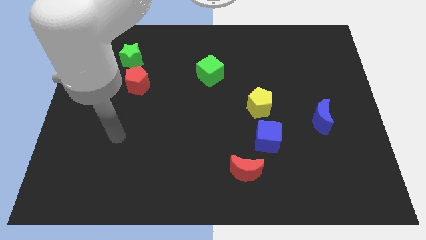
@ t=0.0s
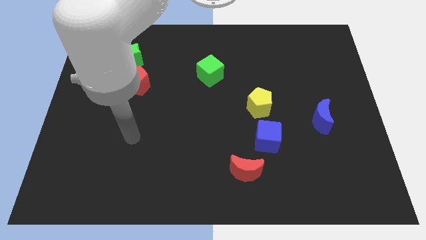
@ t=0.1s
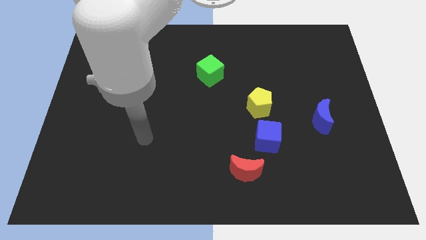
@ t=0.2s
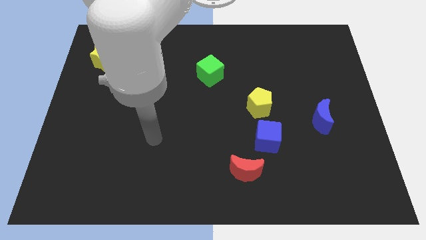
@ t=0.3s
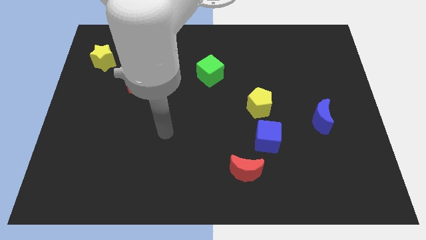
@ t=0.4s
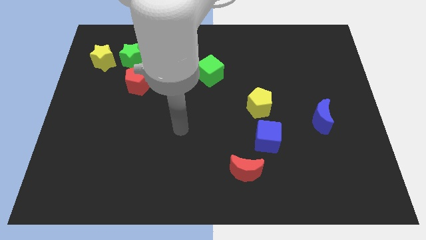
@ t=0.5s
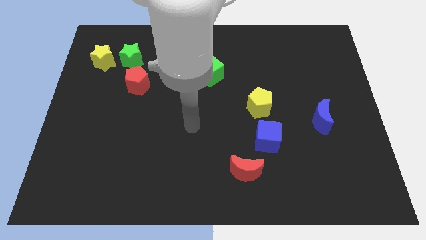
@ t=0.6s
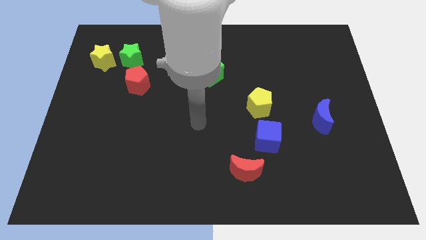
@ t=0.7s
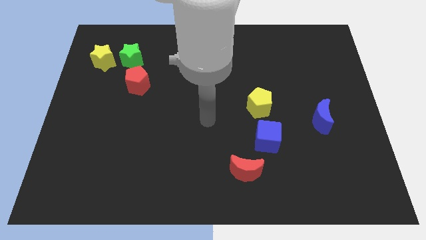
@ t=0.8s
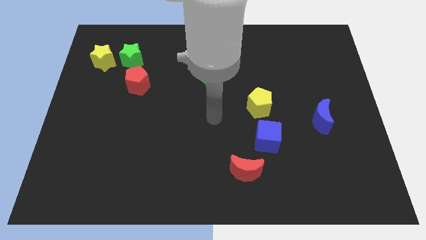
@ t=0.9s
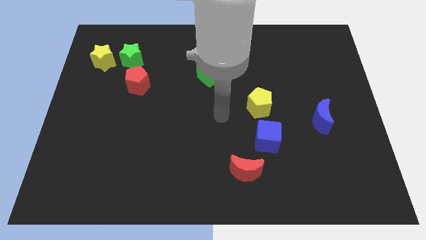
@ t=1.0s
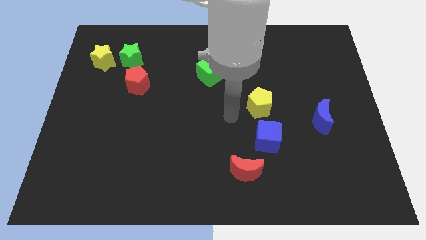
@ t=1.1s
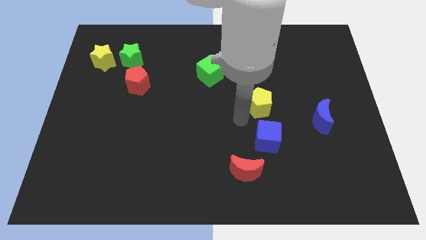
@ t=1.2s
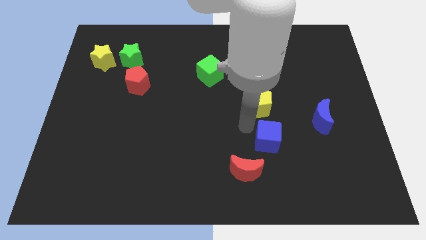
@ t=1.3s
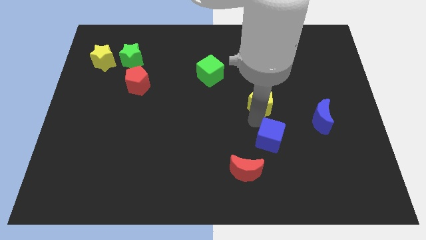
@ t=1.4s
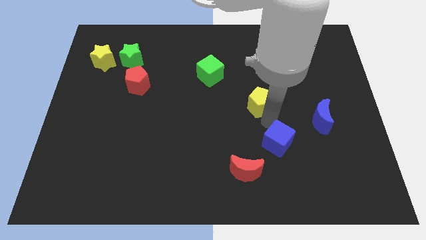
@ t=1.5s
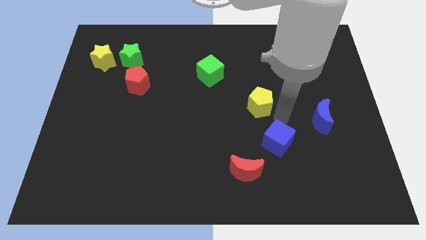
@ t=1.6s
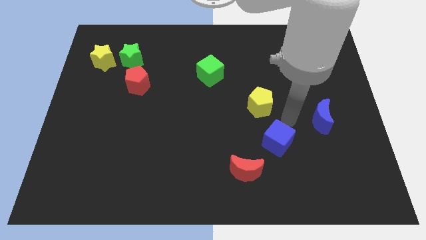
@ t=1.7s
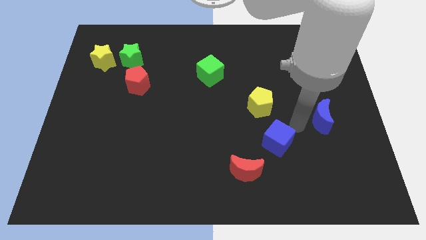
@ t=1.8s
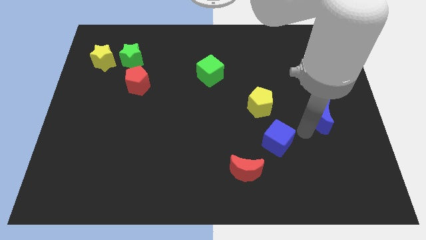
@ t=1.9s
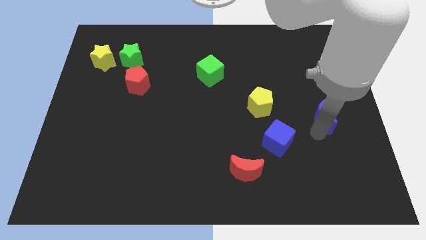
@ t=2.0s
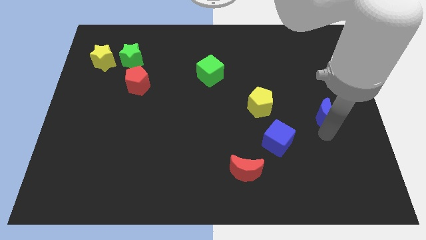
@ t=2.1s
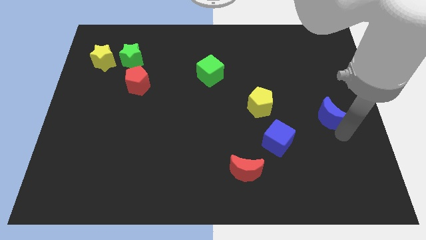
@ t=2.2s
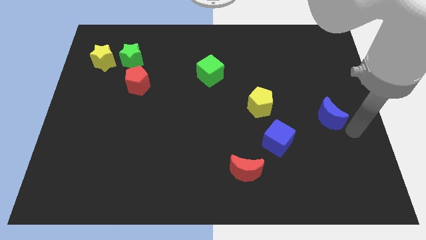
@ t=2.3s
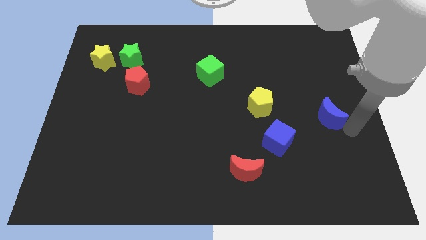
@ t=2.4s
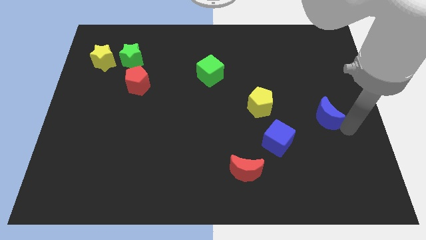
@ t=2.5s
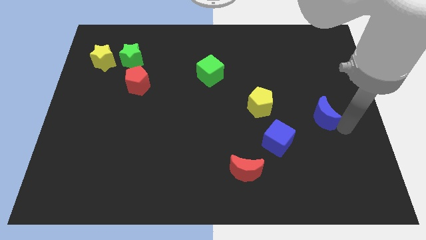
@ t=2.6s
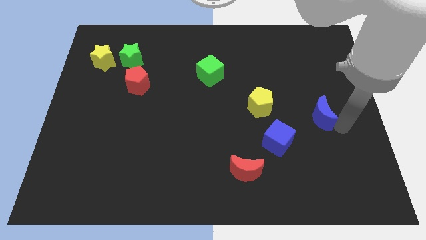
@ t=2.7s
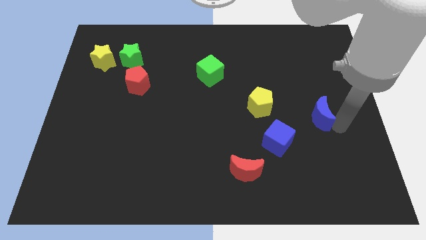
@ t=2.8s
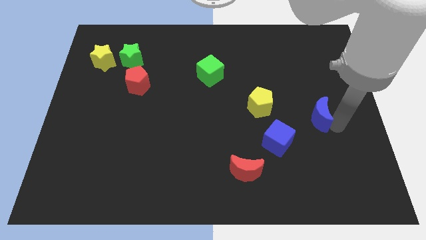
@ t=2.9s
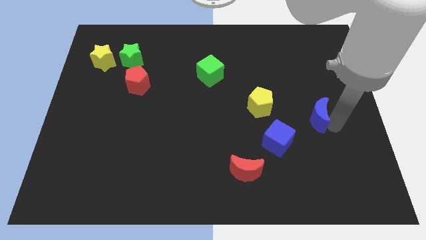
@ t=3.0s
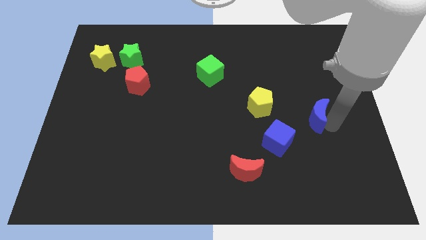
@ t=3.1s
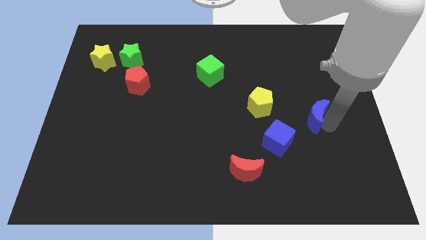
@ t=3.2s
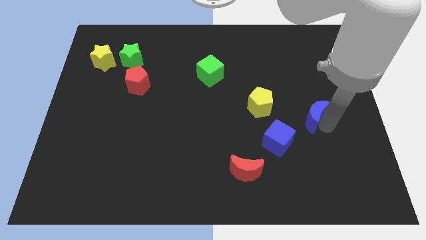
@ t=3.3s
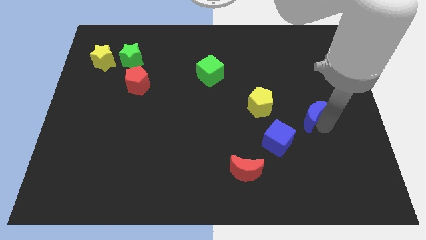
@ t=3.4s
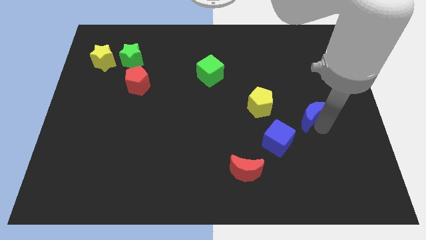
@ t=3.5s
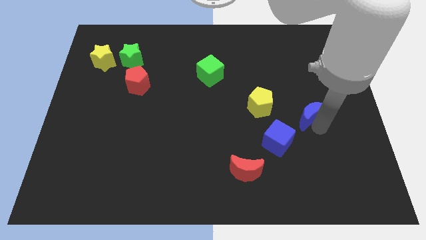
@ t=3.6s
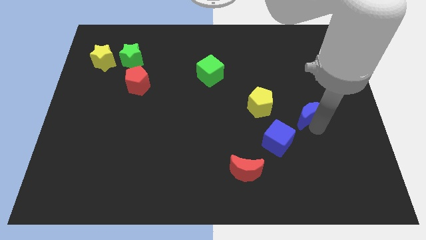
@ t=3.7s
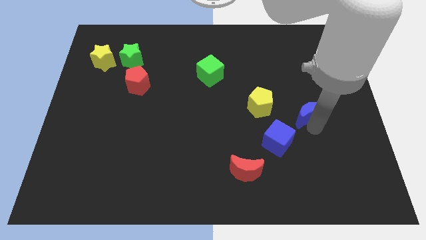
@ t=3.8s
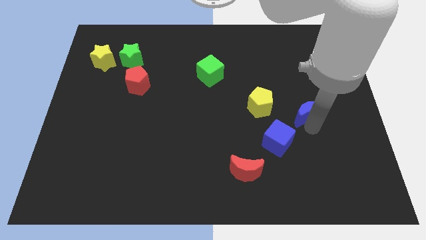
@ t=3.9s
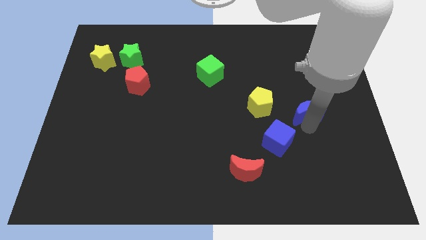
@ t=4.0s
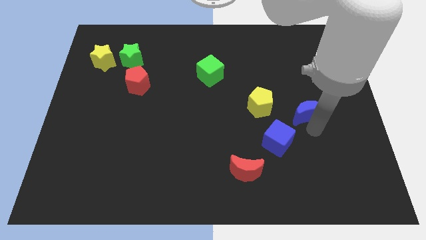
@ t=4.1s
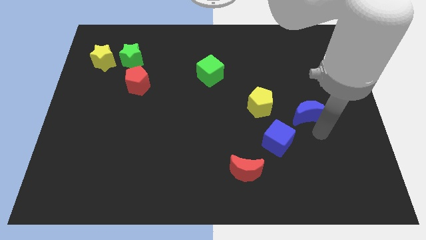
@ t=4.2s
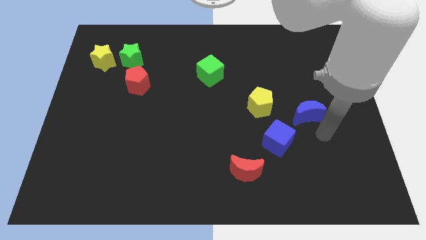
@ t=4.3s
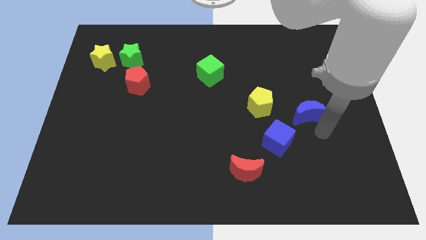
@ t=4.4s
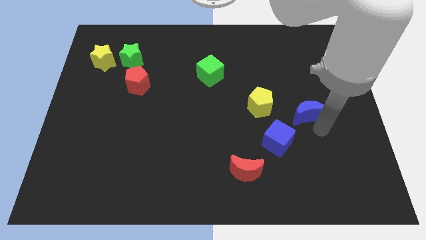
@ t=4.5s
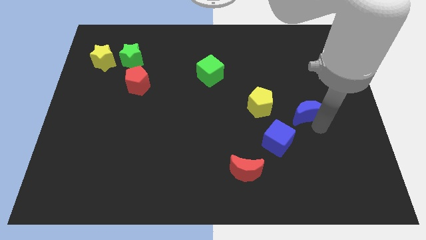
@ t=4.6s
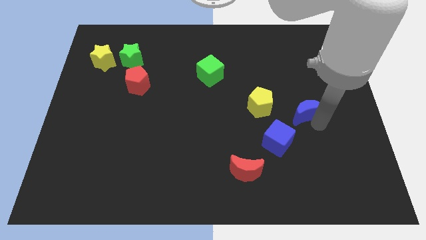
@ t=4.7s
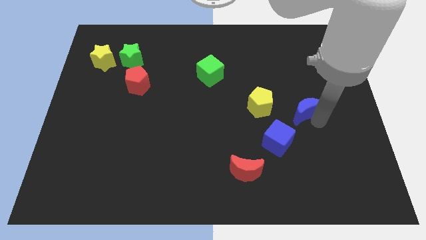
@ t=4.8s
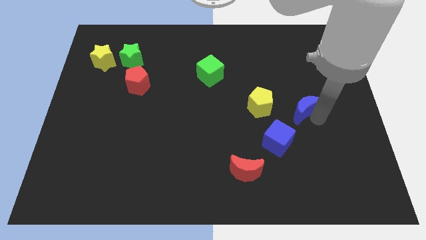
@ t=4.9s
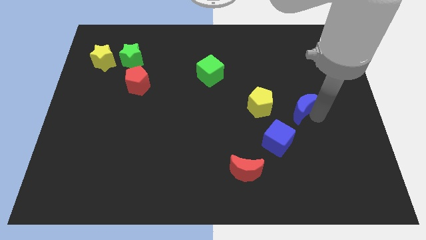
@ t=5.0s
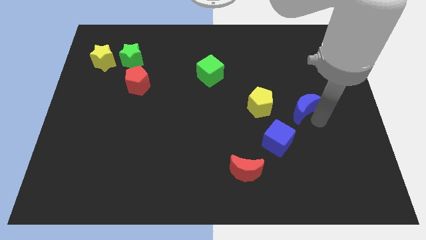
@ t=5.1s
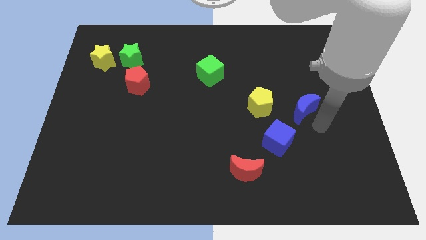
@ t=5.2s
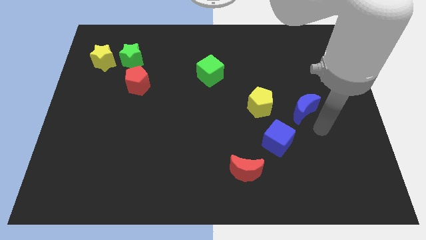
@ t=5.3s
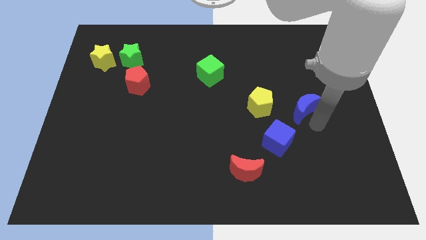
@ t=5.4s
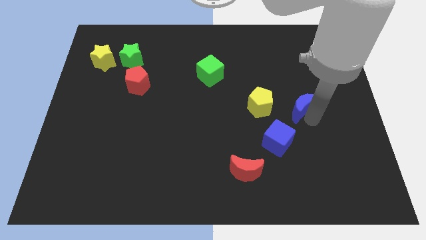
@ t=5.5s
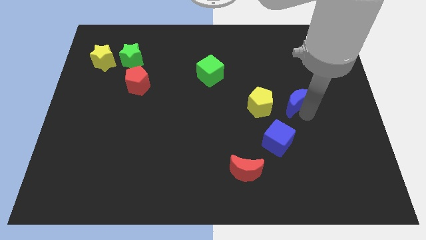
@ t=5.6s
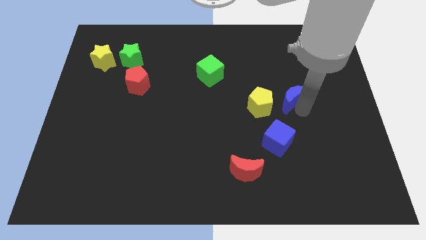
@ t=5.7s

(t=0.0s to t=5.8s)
push the blue moon up and to the left diagonally a little bit

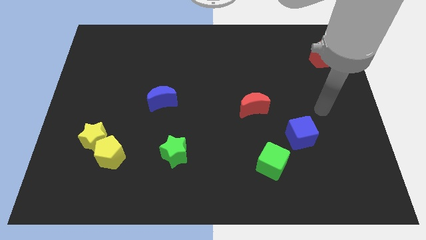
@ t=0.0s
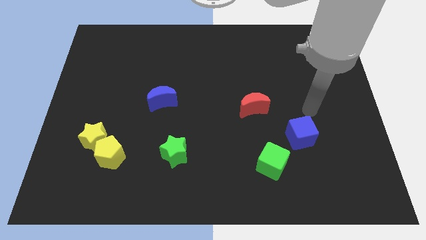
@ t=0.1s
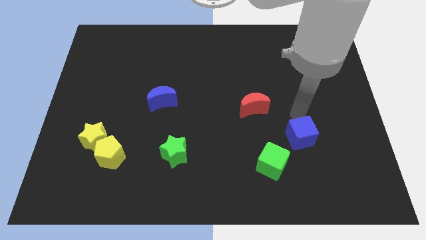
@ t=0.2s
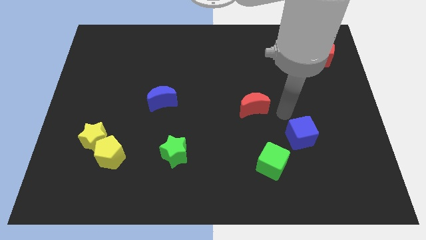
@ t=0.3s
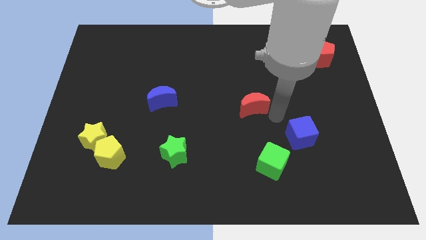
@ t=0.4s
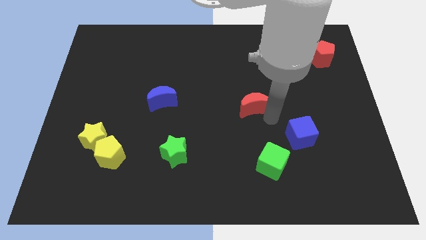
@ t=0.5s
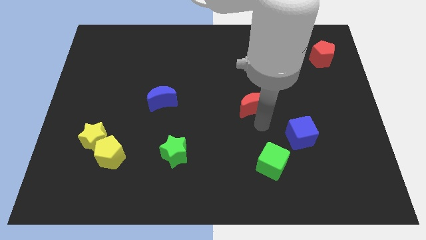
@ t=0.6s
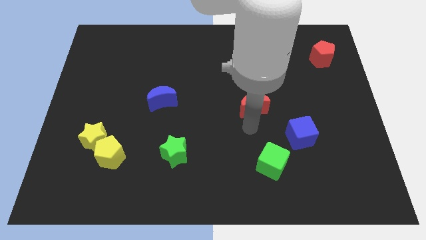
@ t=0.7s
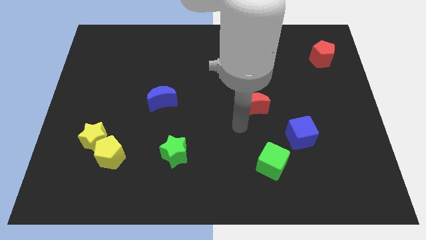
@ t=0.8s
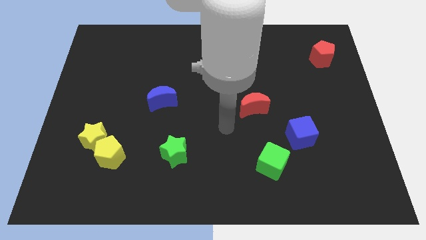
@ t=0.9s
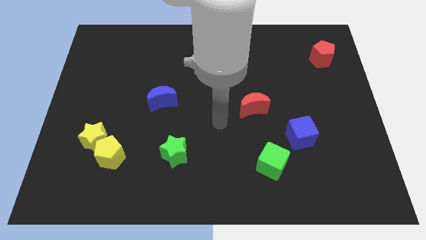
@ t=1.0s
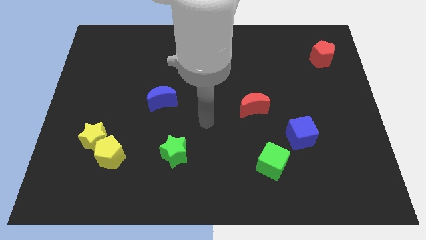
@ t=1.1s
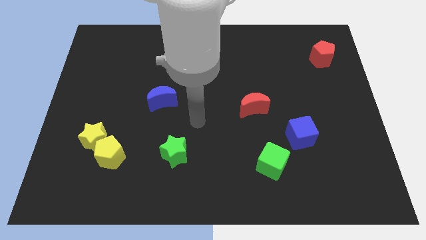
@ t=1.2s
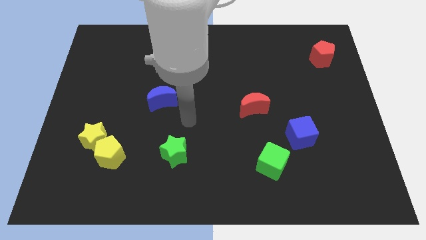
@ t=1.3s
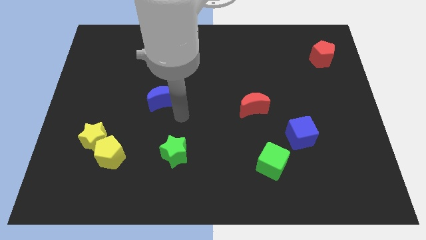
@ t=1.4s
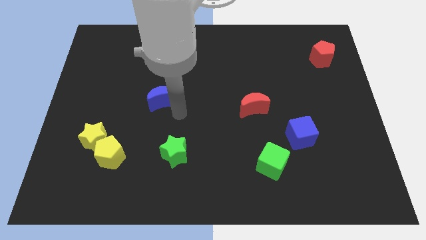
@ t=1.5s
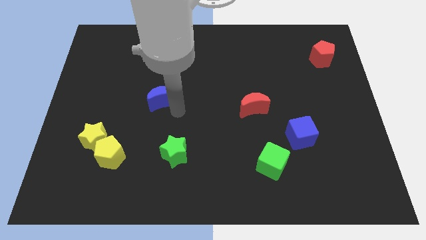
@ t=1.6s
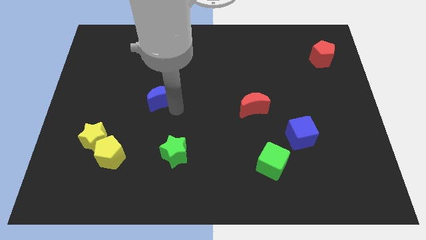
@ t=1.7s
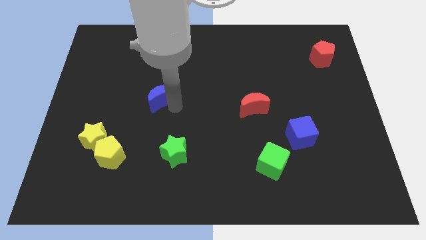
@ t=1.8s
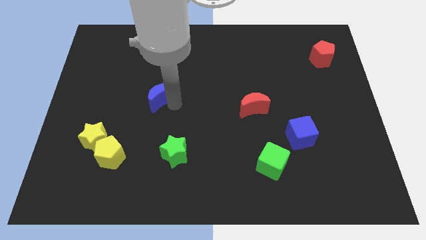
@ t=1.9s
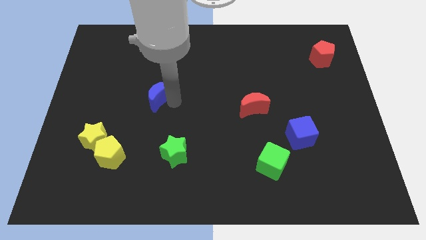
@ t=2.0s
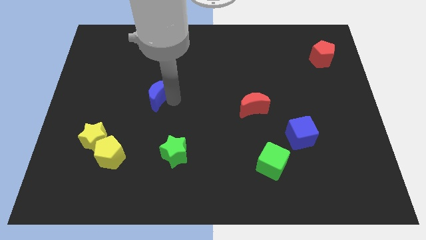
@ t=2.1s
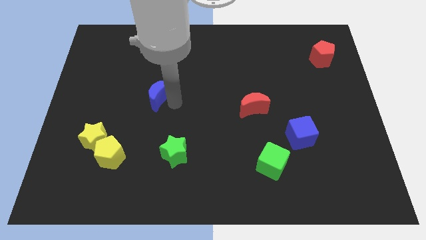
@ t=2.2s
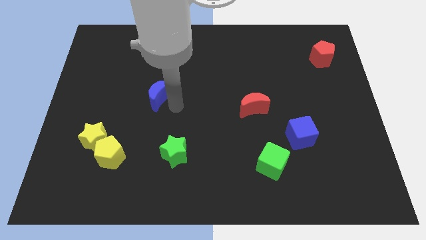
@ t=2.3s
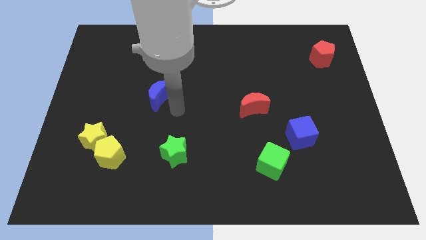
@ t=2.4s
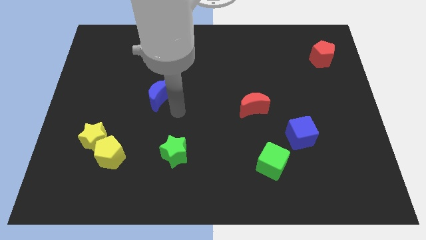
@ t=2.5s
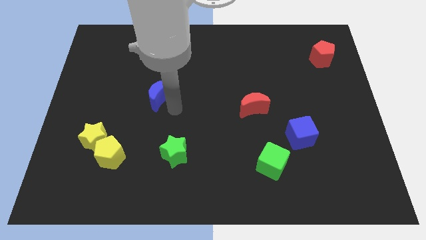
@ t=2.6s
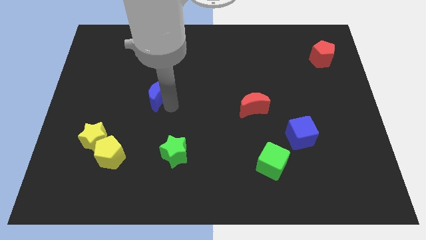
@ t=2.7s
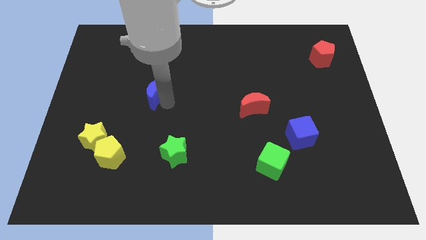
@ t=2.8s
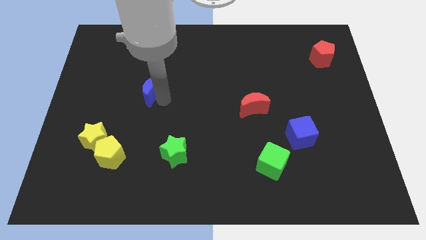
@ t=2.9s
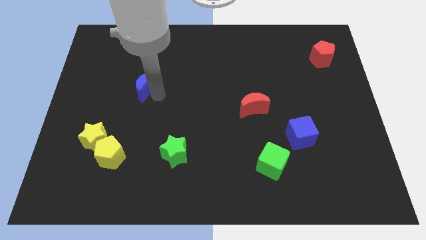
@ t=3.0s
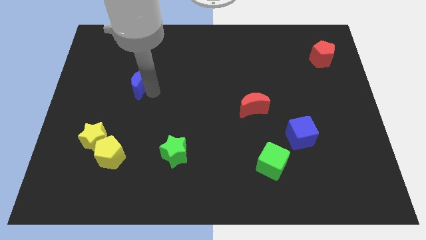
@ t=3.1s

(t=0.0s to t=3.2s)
slide the blue moon up and then left somewhat
